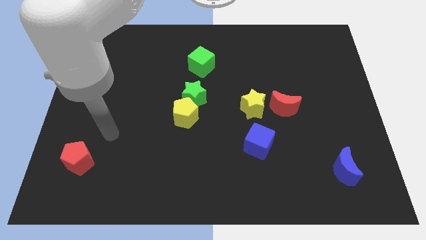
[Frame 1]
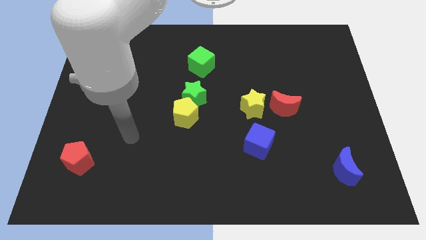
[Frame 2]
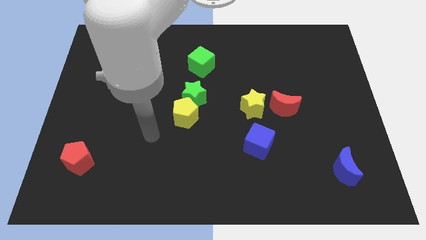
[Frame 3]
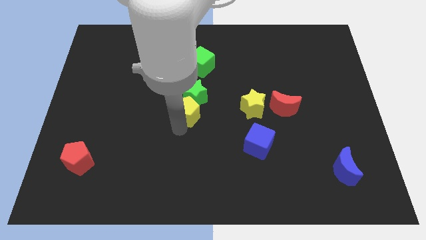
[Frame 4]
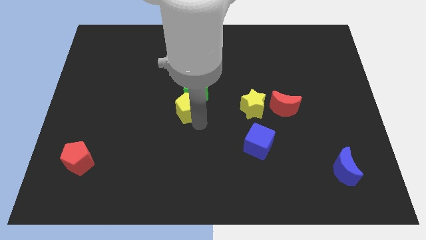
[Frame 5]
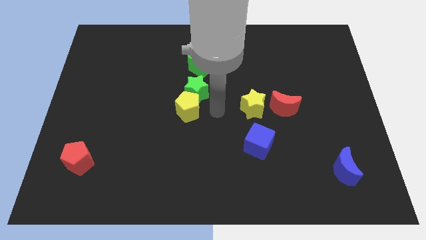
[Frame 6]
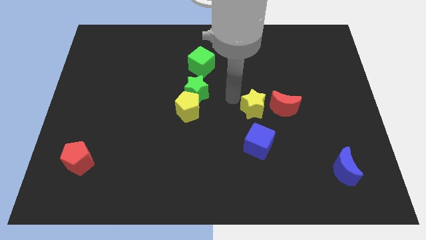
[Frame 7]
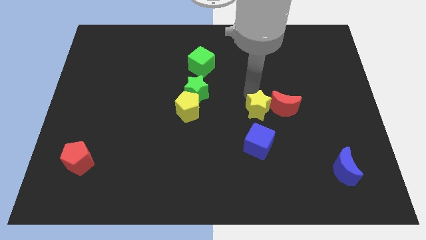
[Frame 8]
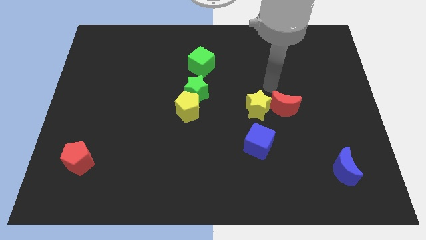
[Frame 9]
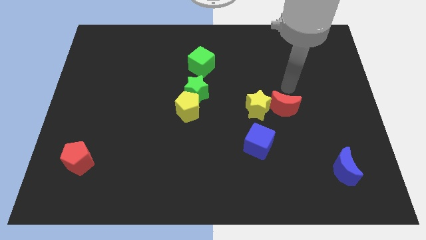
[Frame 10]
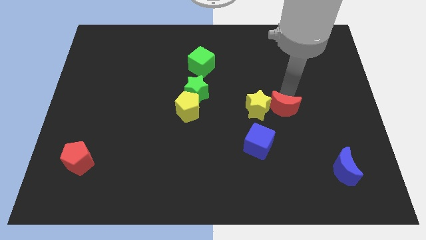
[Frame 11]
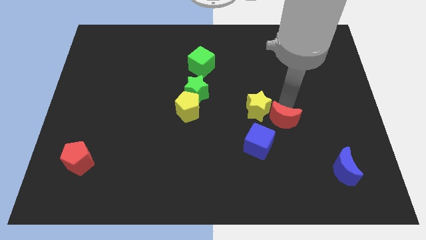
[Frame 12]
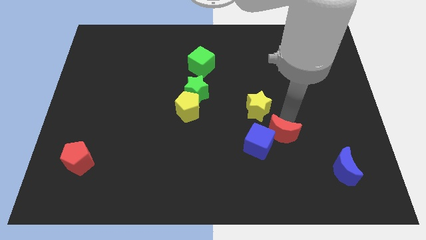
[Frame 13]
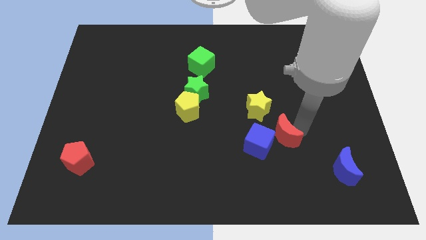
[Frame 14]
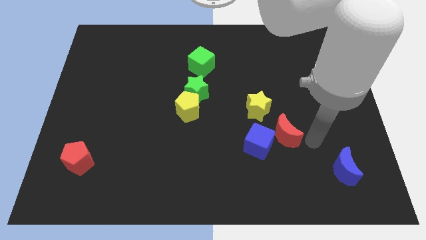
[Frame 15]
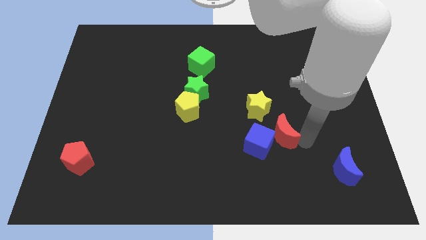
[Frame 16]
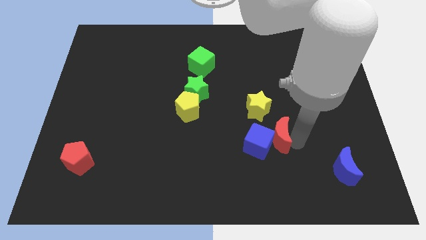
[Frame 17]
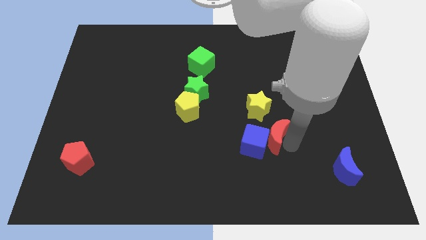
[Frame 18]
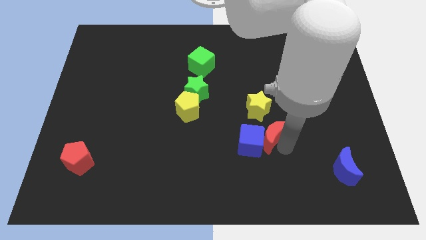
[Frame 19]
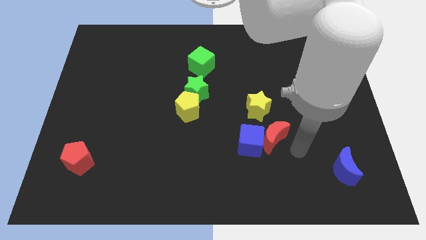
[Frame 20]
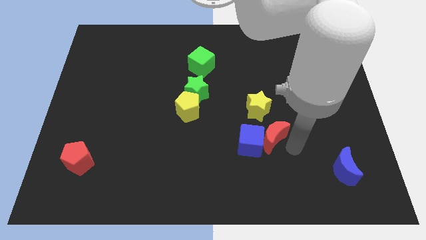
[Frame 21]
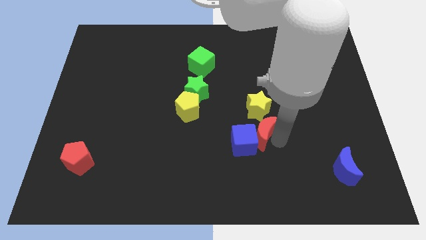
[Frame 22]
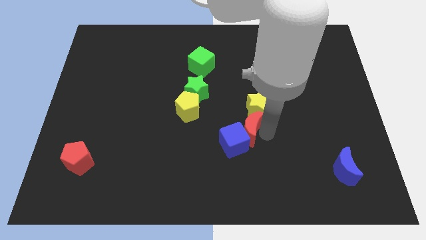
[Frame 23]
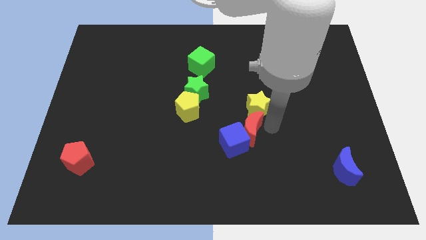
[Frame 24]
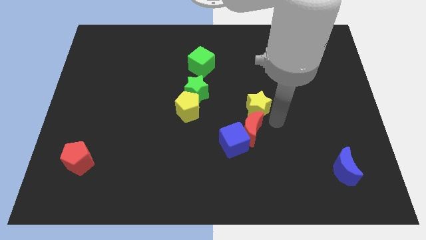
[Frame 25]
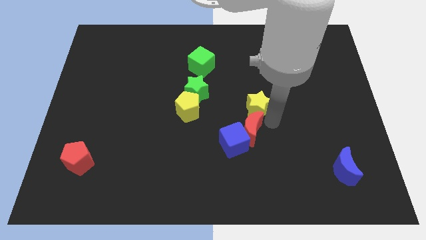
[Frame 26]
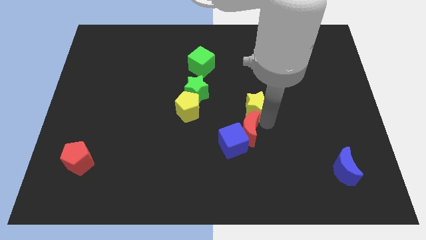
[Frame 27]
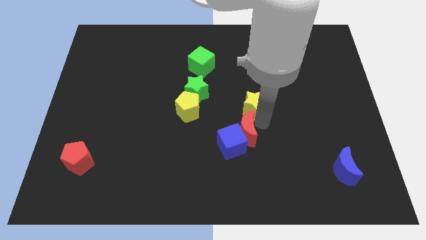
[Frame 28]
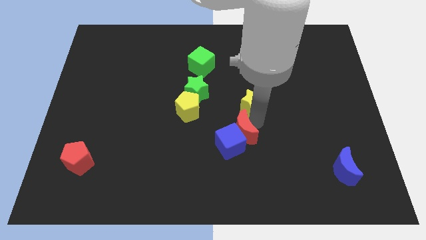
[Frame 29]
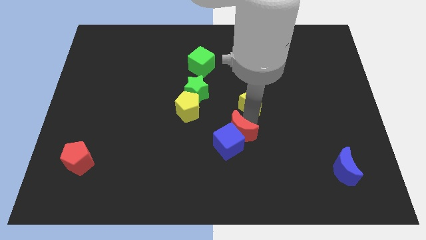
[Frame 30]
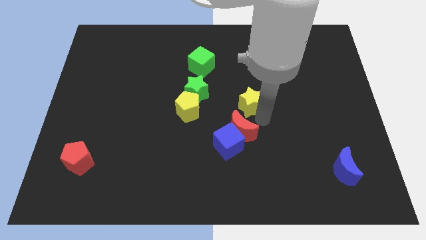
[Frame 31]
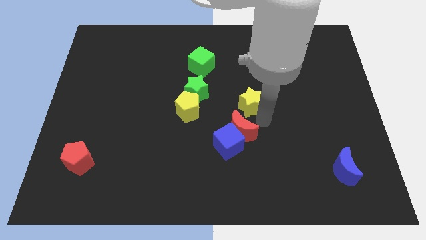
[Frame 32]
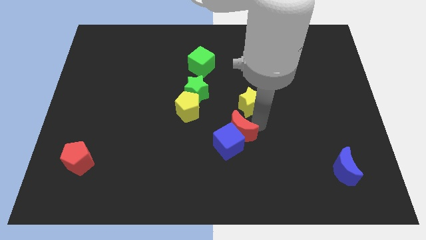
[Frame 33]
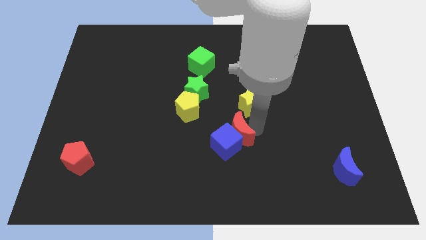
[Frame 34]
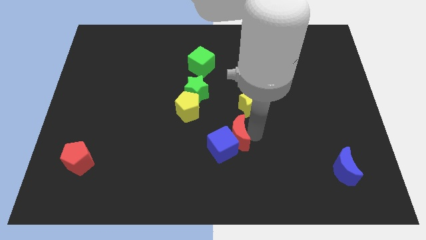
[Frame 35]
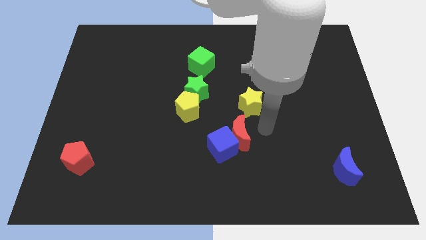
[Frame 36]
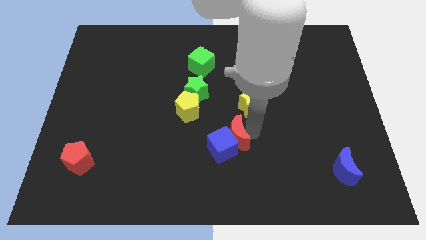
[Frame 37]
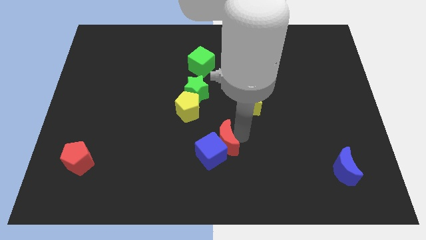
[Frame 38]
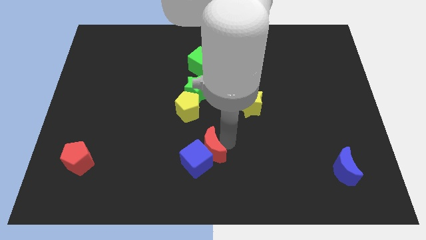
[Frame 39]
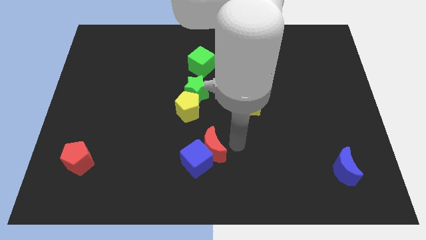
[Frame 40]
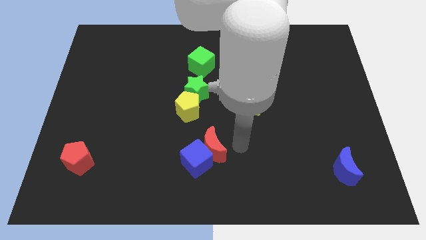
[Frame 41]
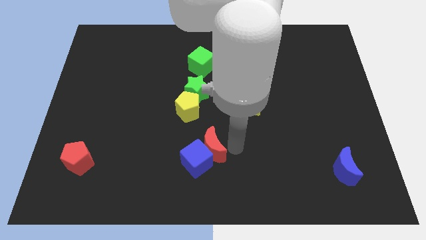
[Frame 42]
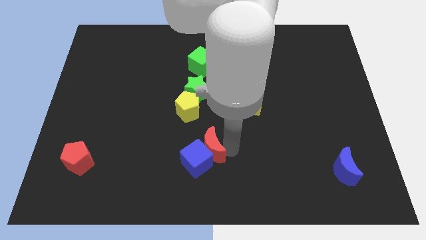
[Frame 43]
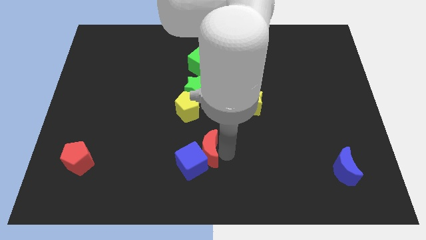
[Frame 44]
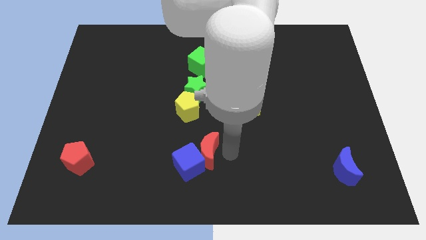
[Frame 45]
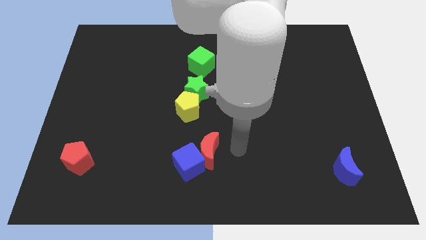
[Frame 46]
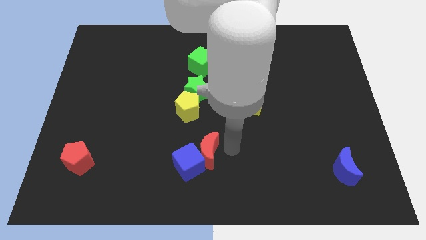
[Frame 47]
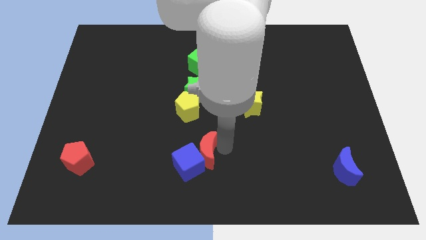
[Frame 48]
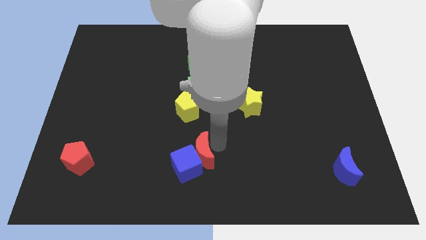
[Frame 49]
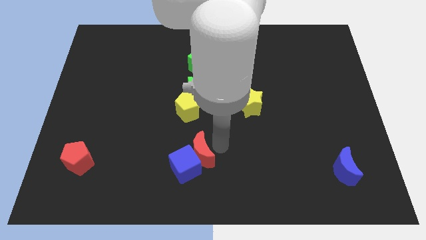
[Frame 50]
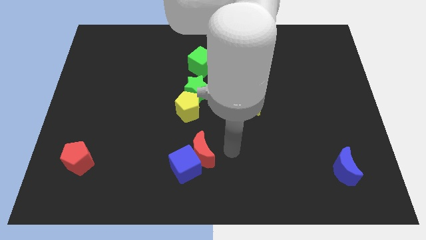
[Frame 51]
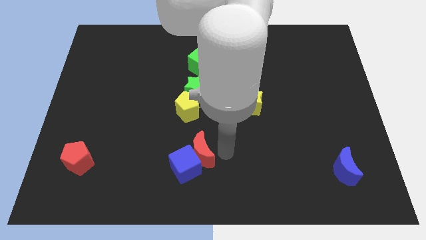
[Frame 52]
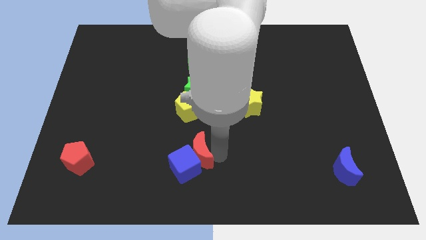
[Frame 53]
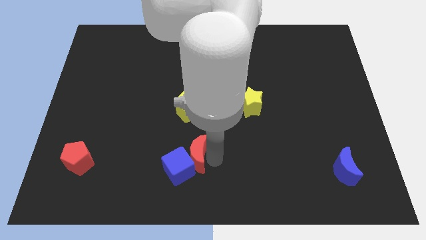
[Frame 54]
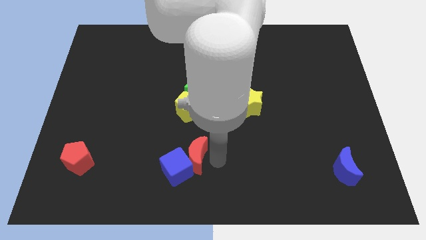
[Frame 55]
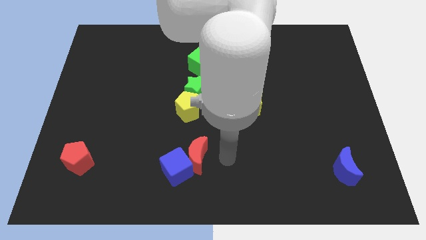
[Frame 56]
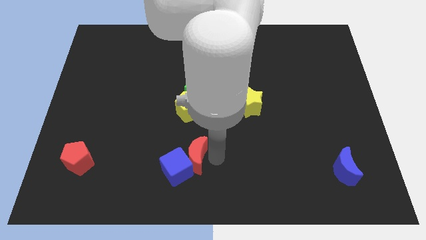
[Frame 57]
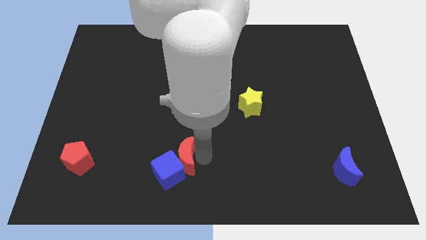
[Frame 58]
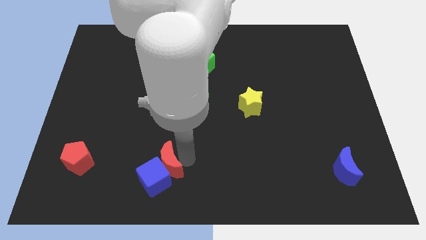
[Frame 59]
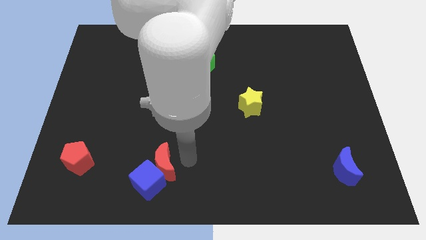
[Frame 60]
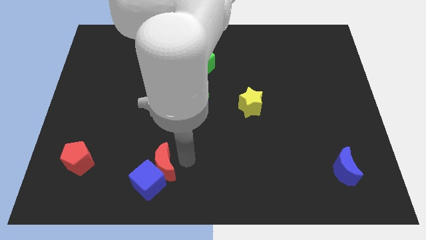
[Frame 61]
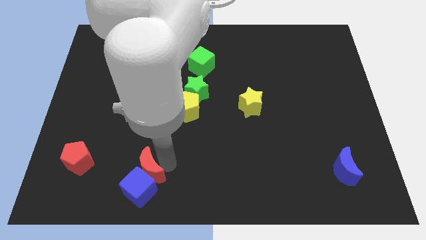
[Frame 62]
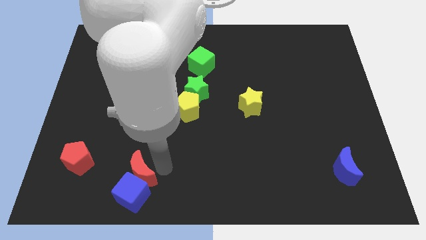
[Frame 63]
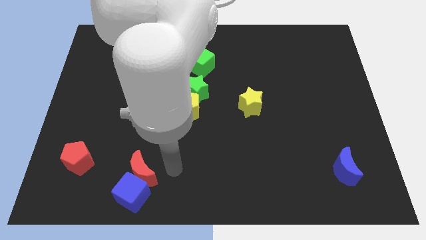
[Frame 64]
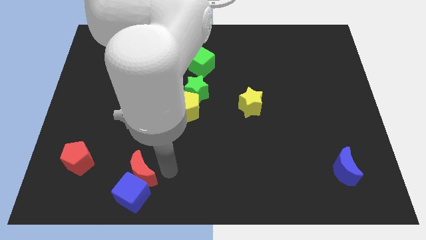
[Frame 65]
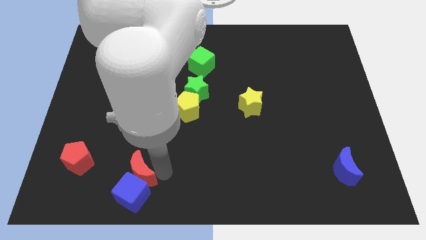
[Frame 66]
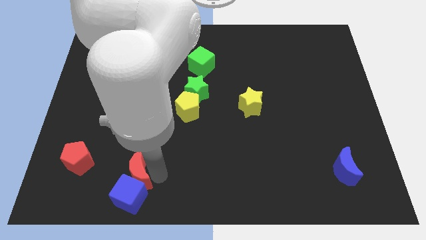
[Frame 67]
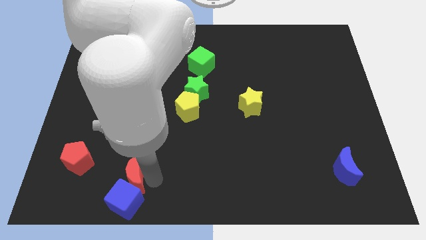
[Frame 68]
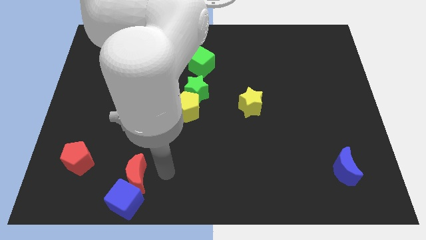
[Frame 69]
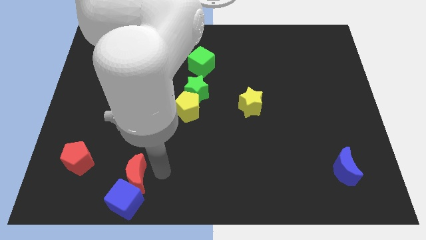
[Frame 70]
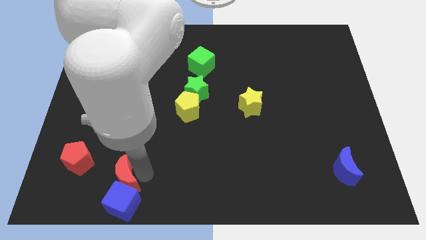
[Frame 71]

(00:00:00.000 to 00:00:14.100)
move the red moon to the bottom right of the red pentagon

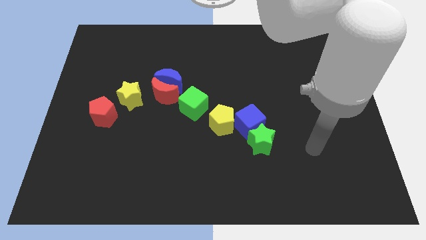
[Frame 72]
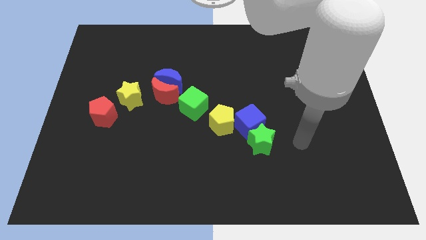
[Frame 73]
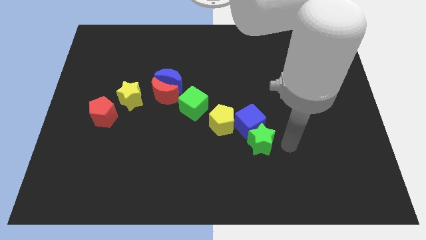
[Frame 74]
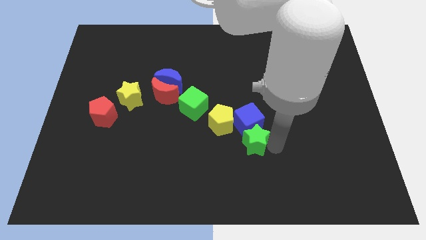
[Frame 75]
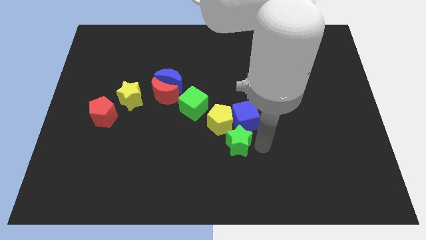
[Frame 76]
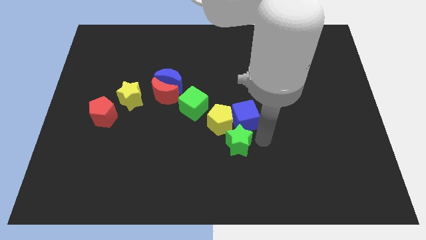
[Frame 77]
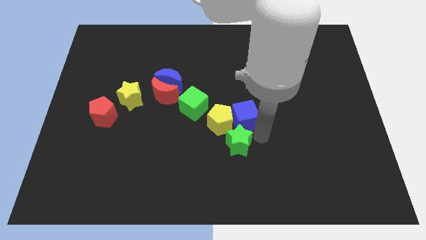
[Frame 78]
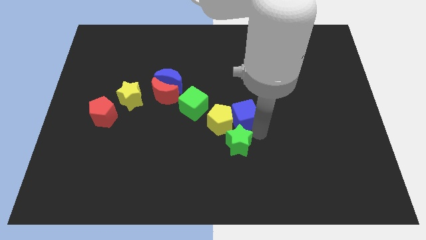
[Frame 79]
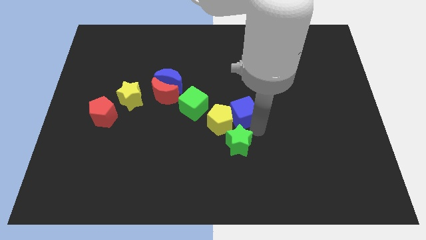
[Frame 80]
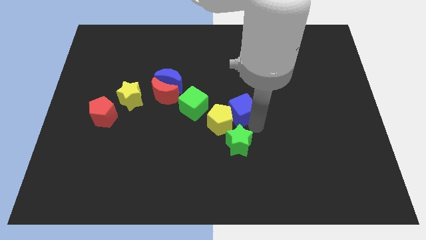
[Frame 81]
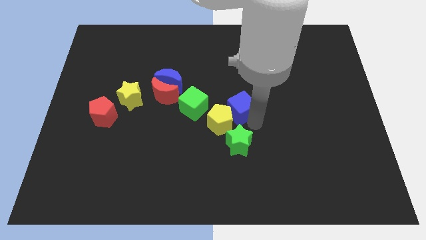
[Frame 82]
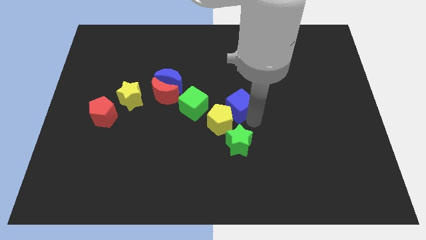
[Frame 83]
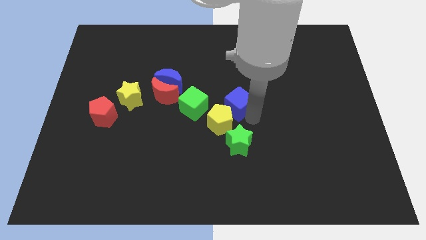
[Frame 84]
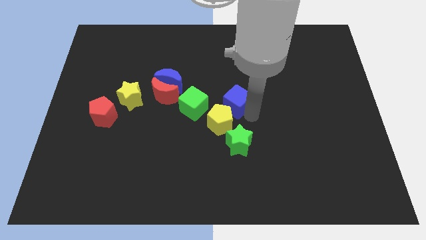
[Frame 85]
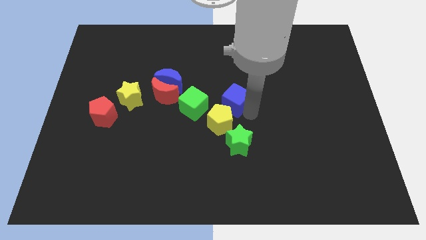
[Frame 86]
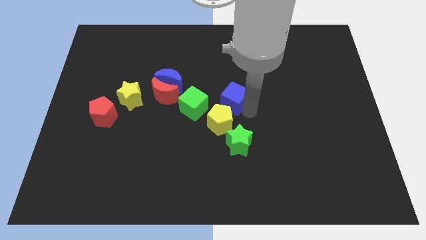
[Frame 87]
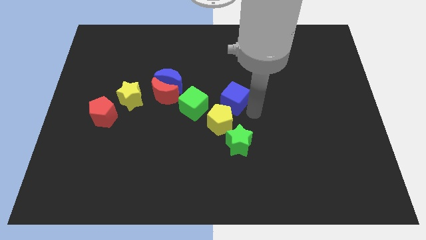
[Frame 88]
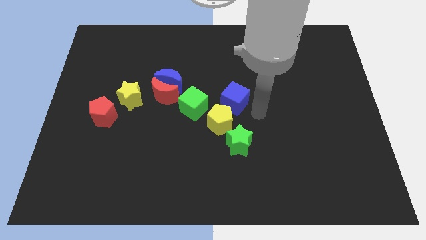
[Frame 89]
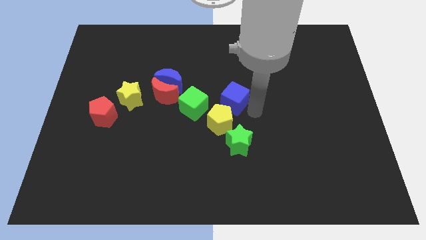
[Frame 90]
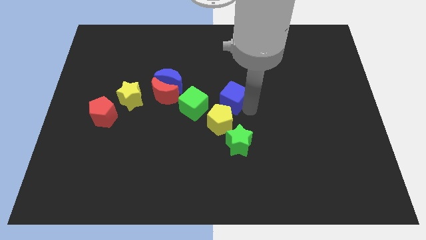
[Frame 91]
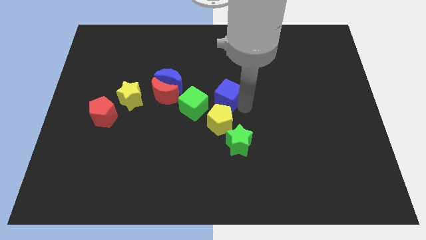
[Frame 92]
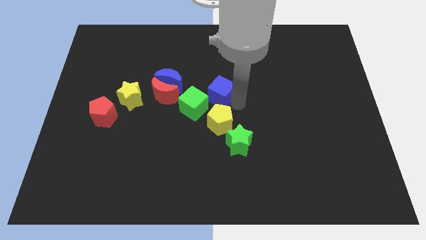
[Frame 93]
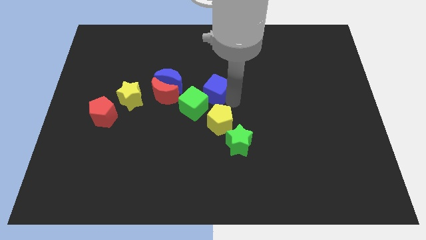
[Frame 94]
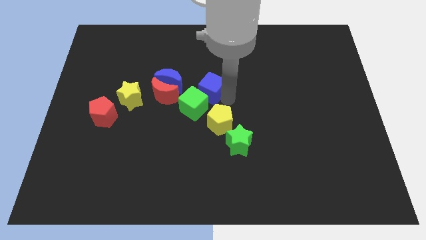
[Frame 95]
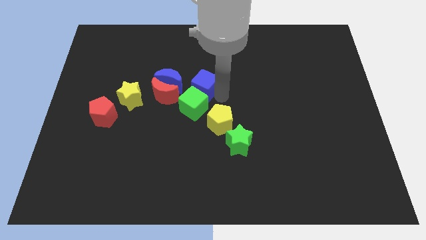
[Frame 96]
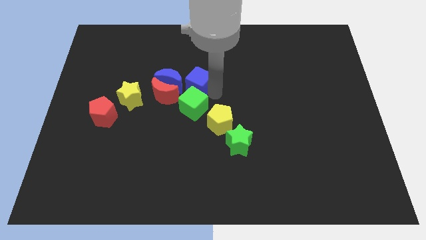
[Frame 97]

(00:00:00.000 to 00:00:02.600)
move the blue cube to the top right side of the red moon
